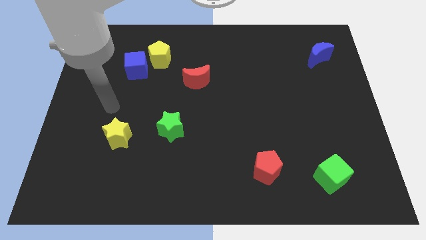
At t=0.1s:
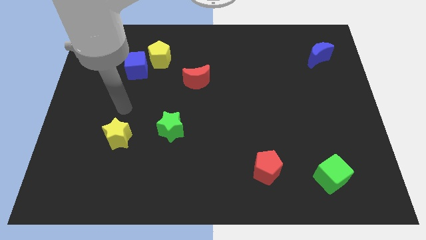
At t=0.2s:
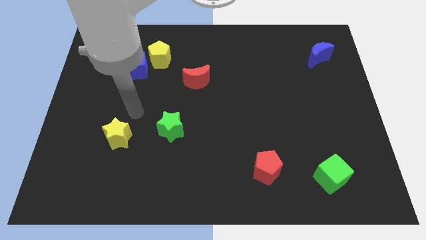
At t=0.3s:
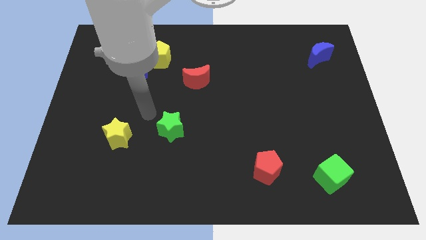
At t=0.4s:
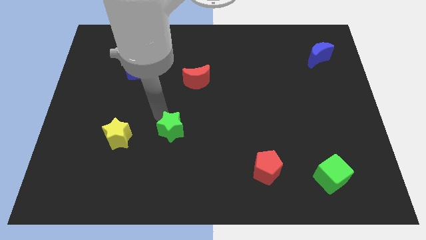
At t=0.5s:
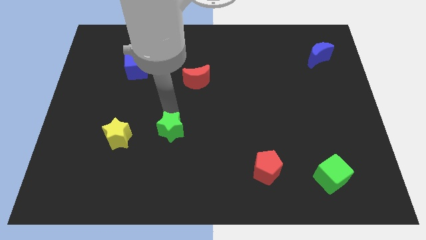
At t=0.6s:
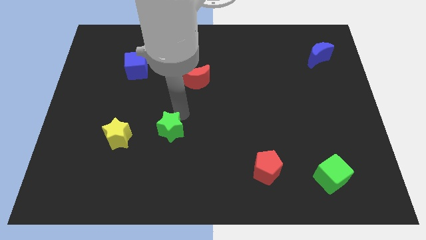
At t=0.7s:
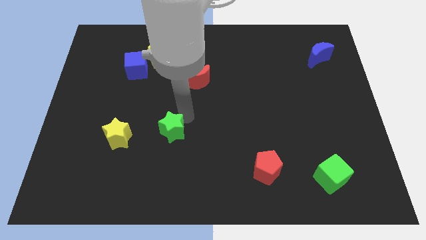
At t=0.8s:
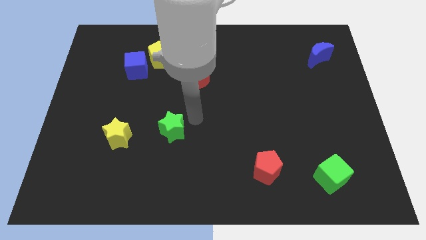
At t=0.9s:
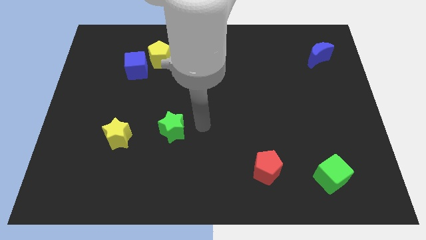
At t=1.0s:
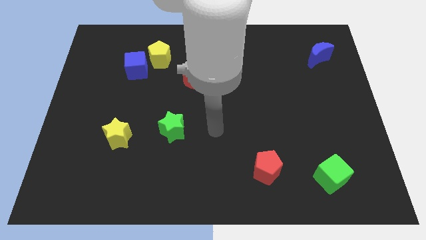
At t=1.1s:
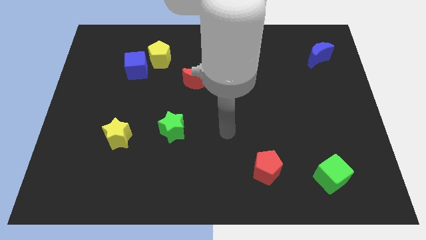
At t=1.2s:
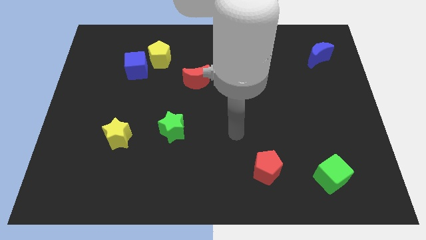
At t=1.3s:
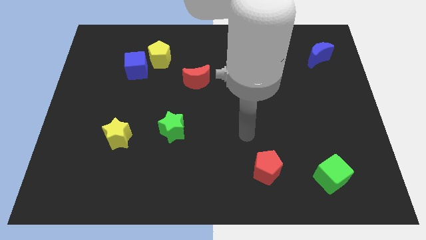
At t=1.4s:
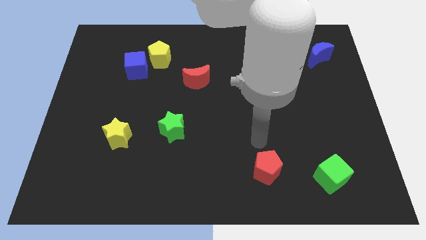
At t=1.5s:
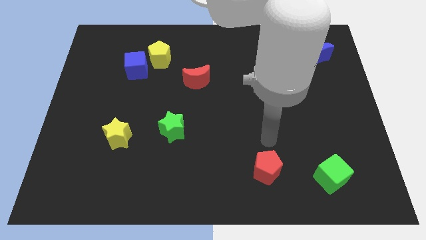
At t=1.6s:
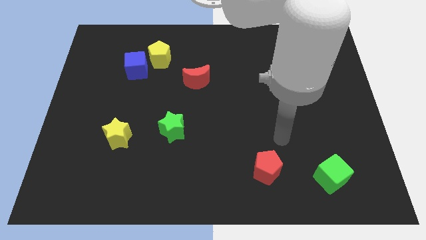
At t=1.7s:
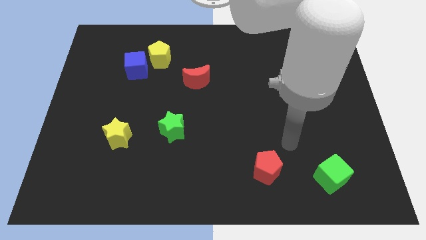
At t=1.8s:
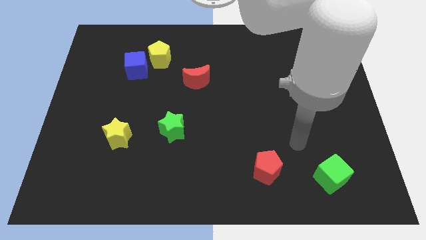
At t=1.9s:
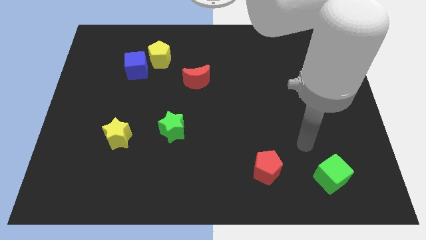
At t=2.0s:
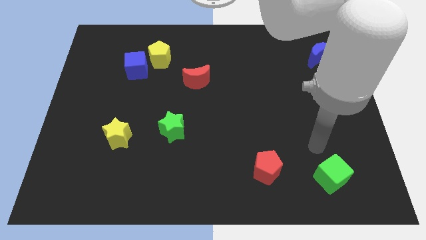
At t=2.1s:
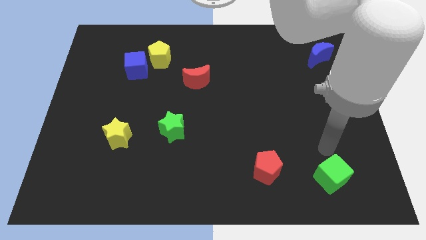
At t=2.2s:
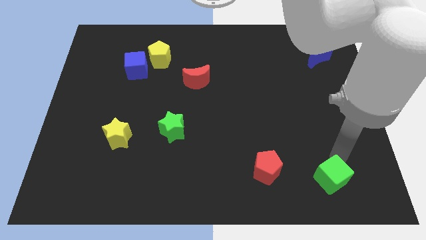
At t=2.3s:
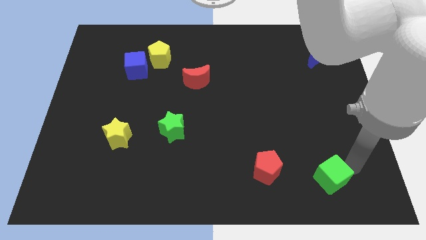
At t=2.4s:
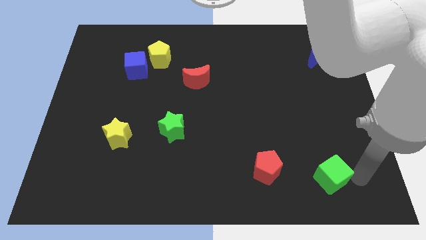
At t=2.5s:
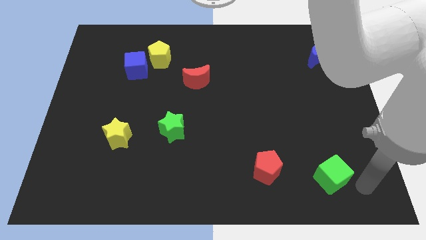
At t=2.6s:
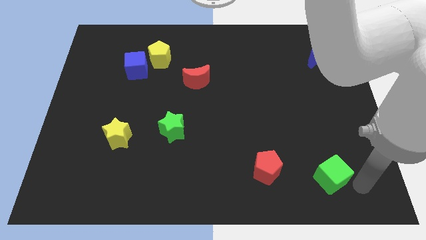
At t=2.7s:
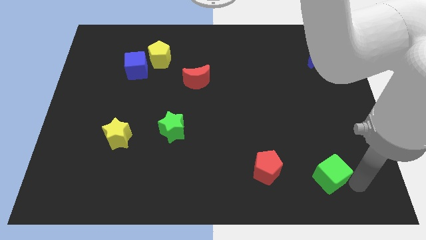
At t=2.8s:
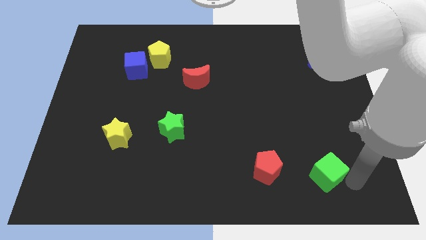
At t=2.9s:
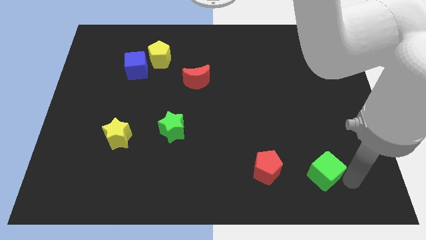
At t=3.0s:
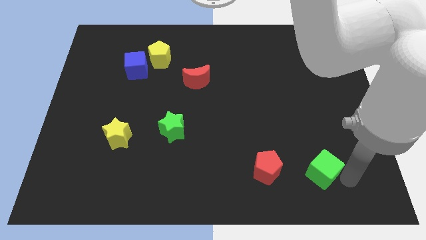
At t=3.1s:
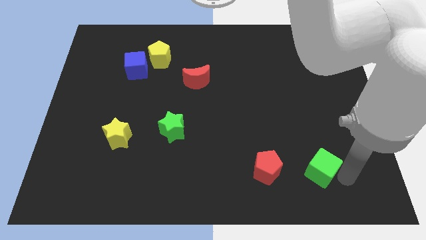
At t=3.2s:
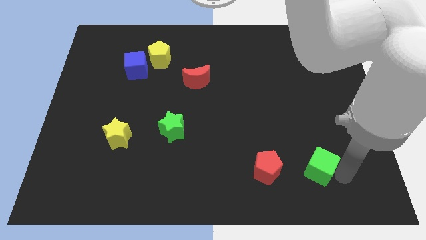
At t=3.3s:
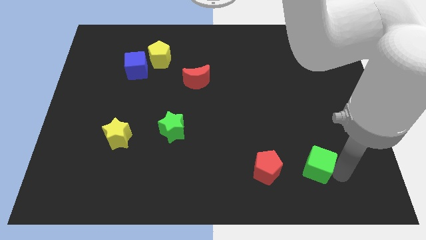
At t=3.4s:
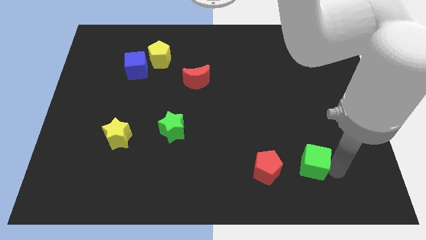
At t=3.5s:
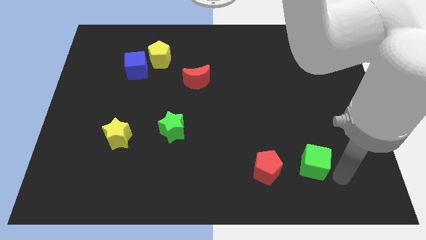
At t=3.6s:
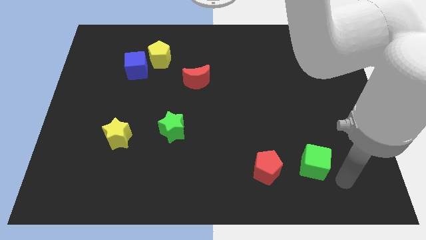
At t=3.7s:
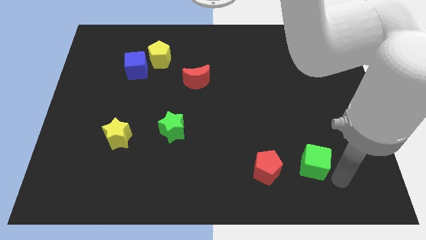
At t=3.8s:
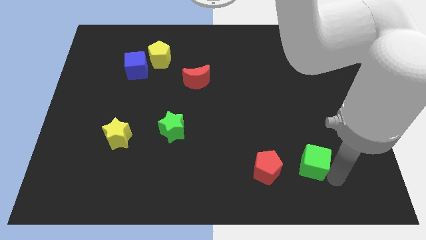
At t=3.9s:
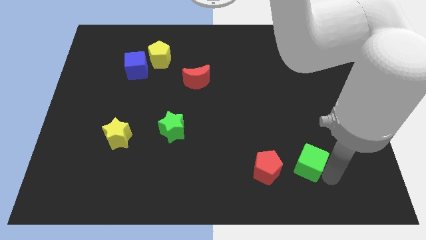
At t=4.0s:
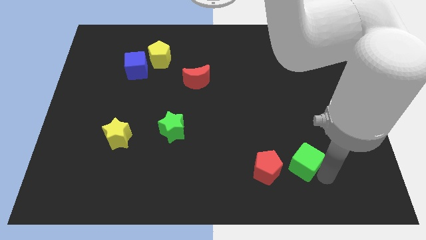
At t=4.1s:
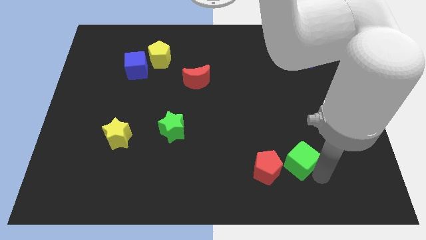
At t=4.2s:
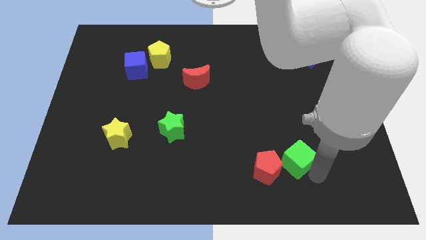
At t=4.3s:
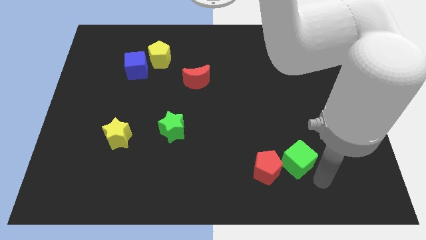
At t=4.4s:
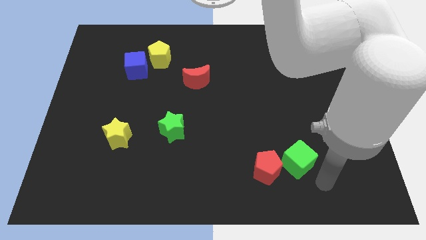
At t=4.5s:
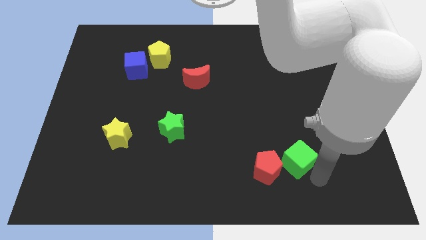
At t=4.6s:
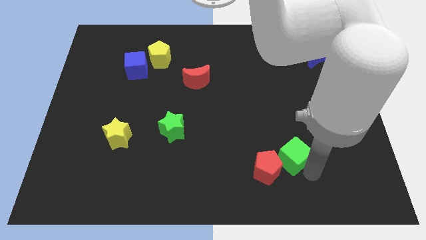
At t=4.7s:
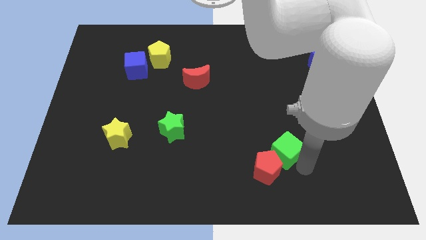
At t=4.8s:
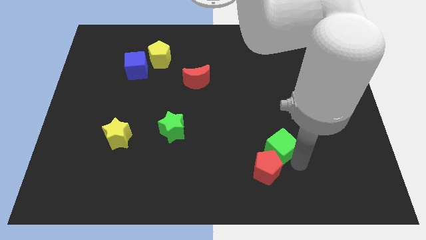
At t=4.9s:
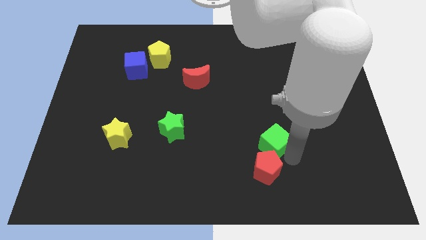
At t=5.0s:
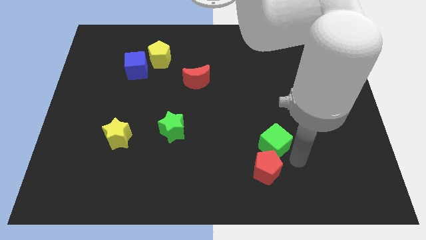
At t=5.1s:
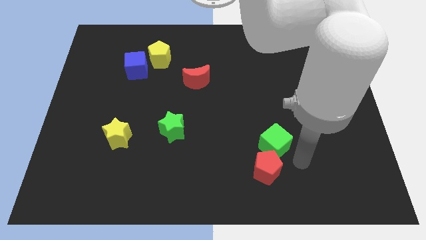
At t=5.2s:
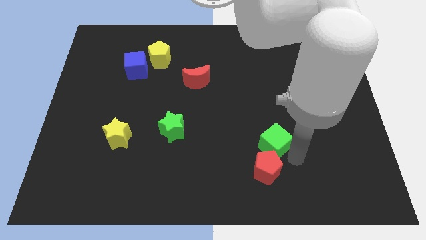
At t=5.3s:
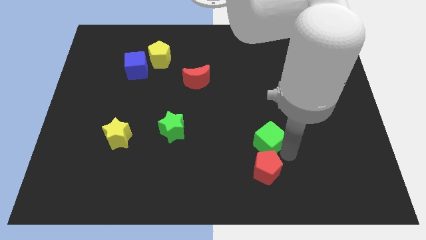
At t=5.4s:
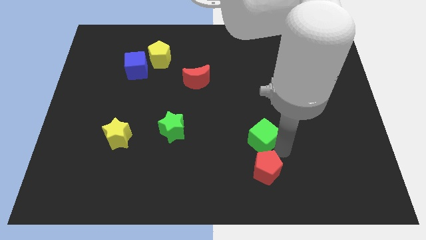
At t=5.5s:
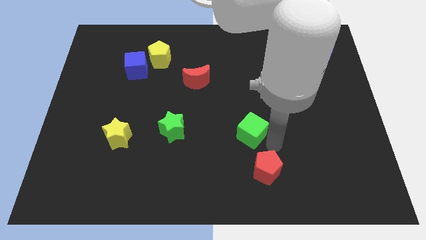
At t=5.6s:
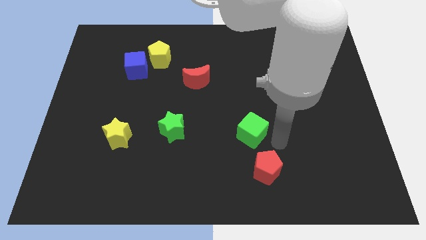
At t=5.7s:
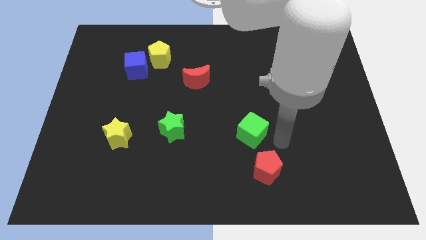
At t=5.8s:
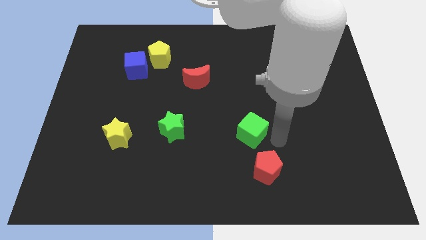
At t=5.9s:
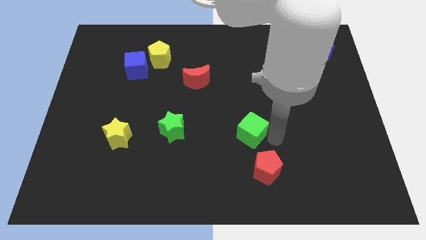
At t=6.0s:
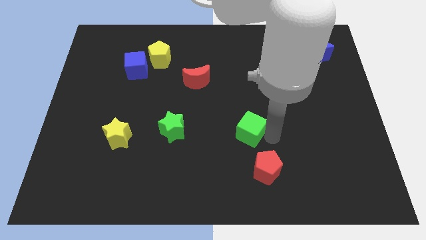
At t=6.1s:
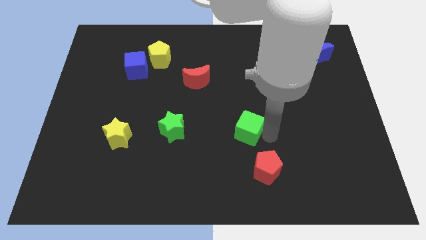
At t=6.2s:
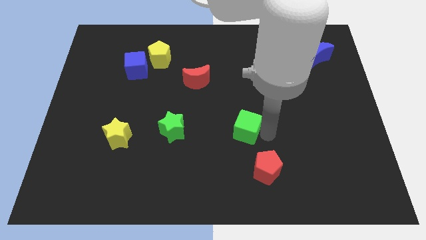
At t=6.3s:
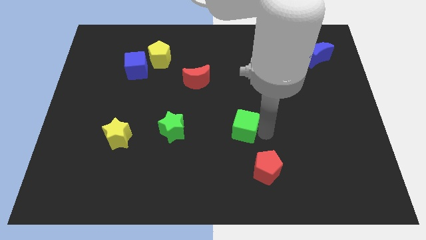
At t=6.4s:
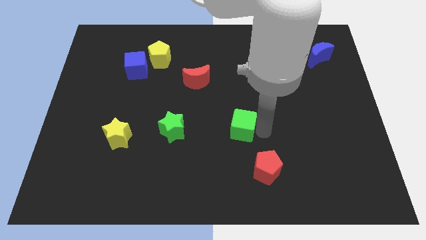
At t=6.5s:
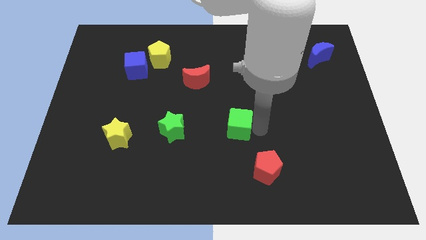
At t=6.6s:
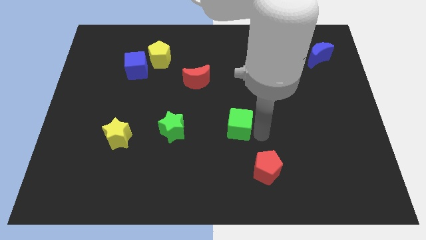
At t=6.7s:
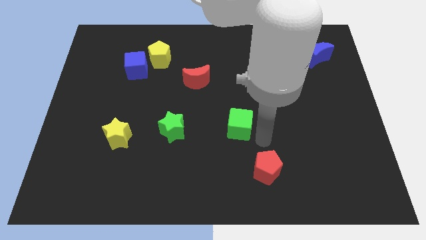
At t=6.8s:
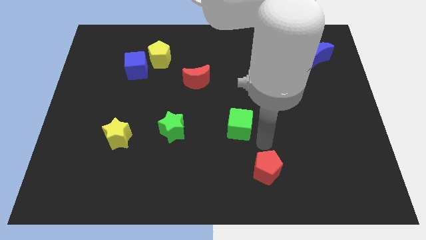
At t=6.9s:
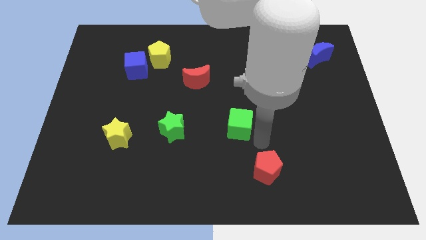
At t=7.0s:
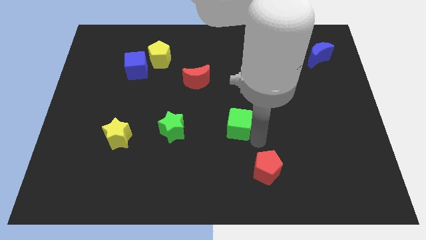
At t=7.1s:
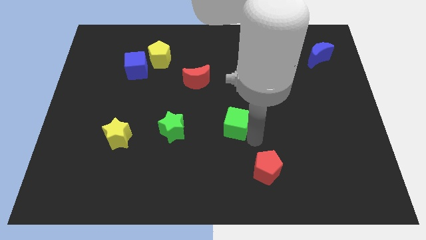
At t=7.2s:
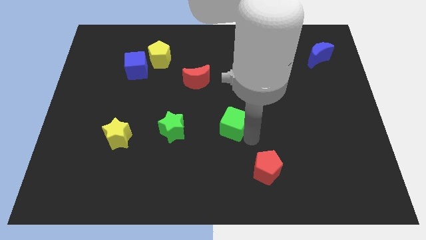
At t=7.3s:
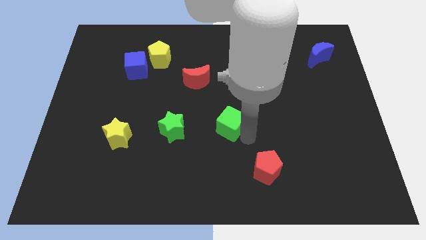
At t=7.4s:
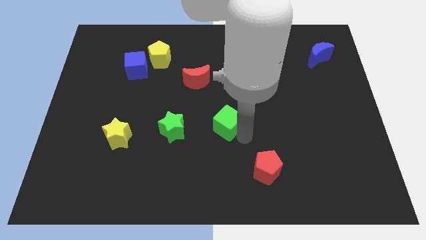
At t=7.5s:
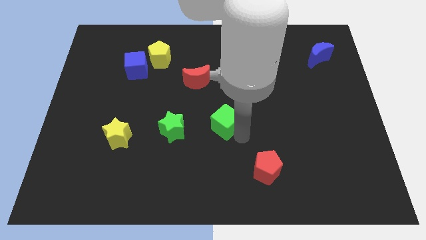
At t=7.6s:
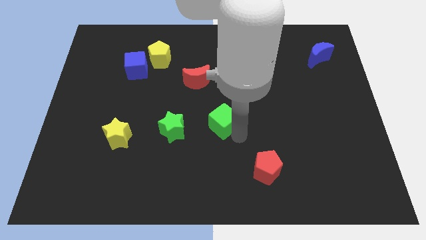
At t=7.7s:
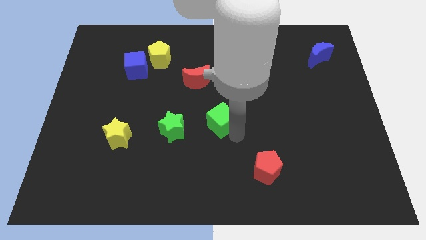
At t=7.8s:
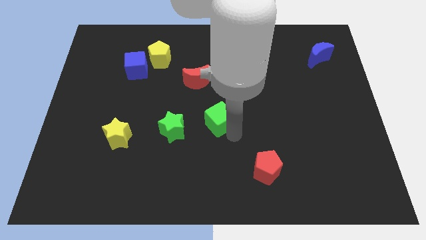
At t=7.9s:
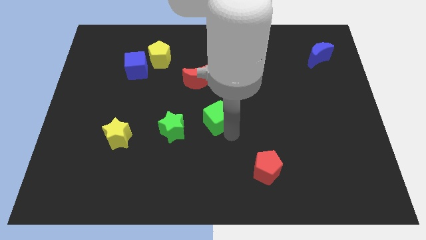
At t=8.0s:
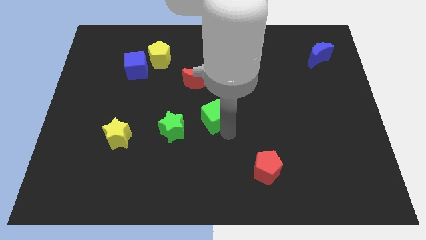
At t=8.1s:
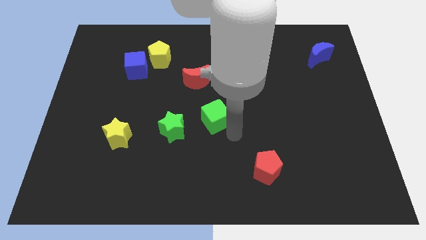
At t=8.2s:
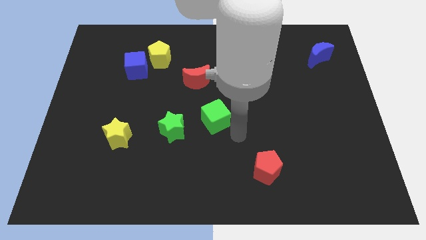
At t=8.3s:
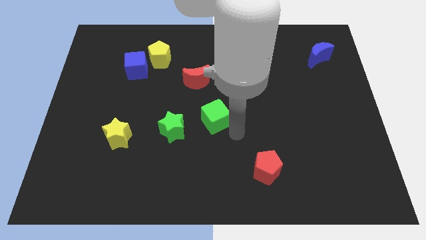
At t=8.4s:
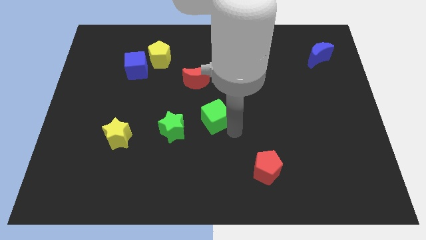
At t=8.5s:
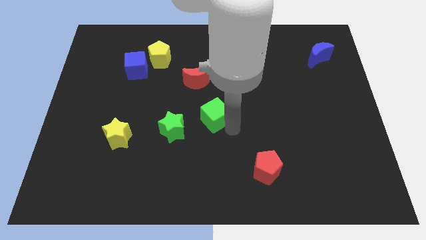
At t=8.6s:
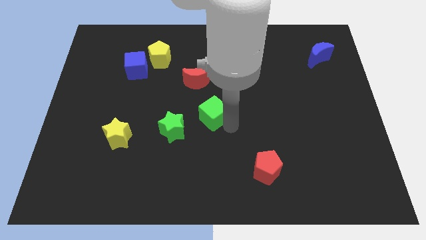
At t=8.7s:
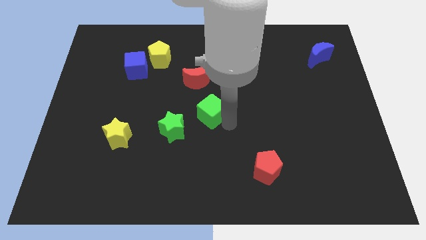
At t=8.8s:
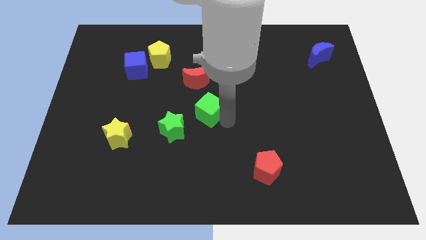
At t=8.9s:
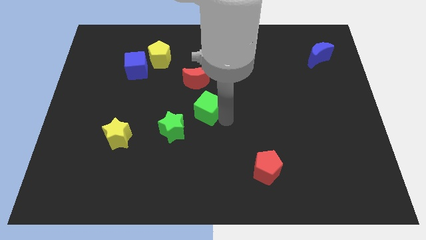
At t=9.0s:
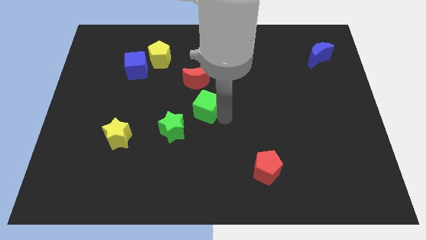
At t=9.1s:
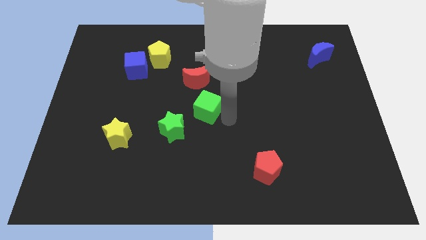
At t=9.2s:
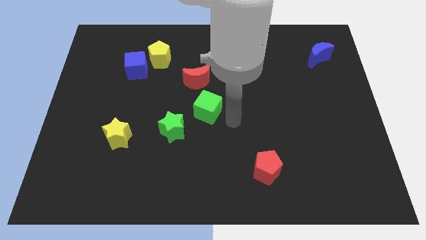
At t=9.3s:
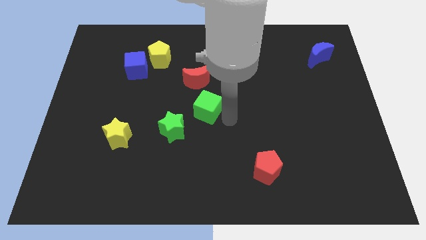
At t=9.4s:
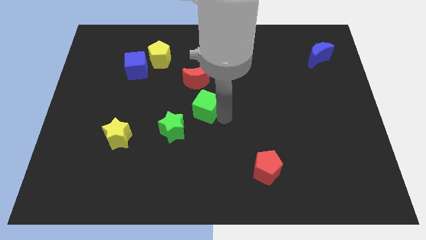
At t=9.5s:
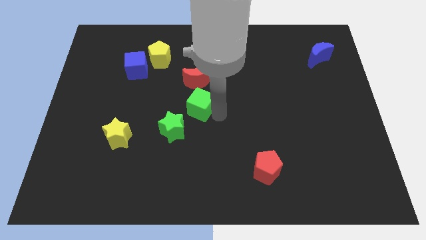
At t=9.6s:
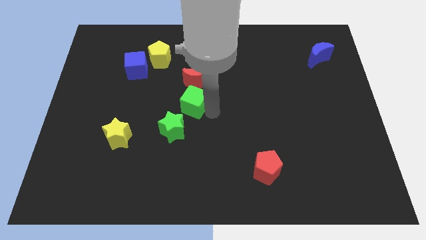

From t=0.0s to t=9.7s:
slide the green cube diagonally down and to the left of the red moon
